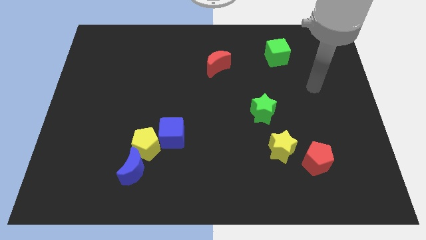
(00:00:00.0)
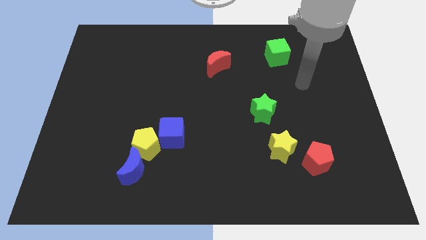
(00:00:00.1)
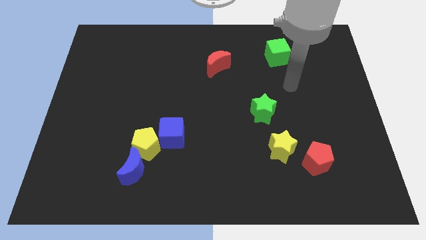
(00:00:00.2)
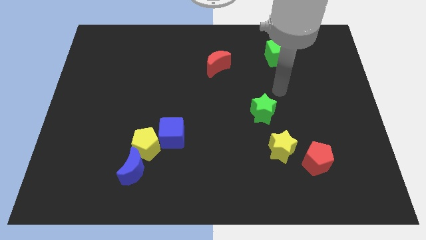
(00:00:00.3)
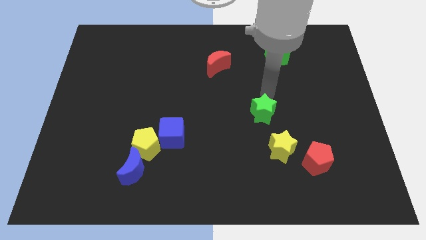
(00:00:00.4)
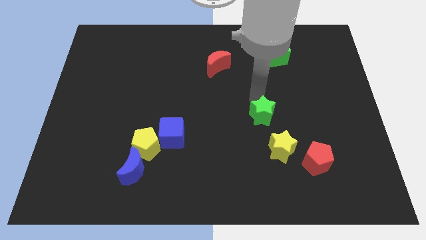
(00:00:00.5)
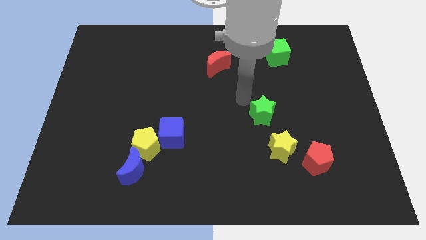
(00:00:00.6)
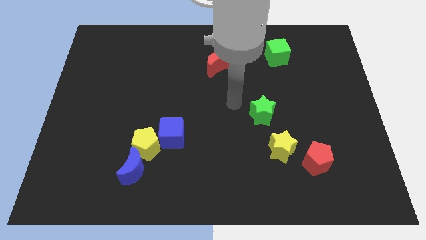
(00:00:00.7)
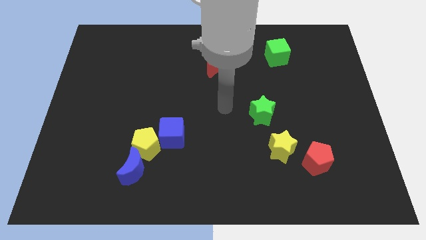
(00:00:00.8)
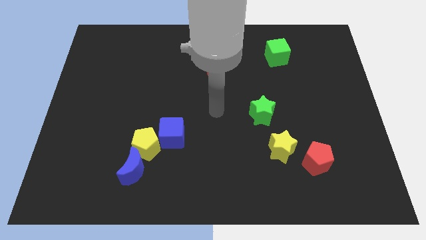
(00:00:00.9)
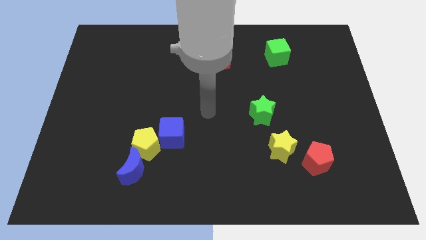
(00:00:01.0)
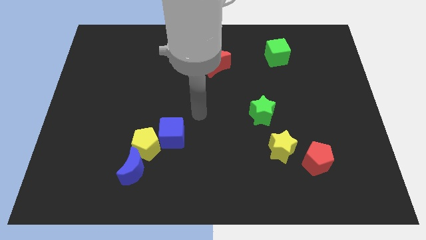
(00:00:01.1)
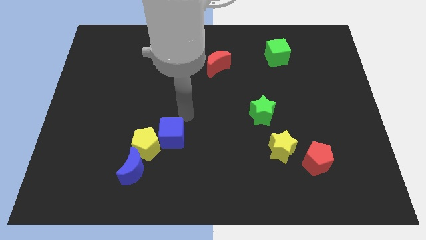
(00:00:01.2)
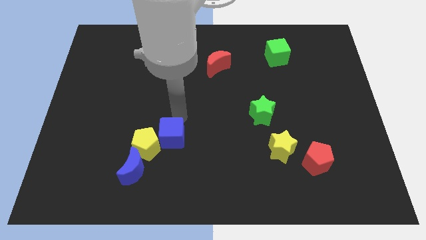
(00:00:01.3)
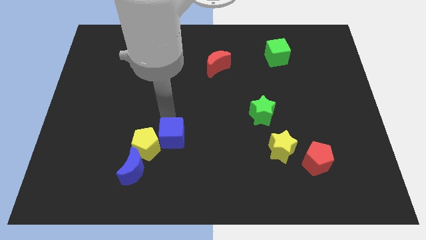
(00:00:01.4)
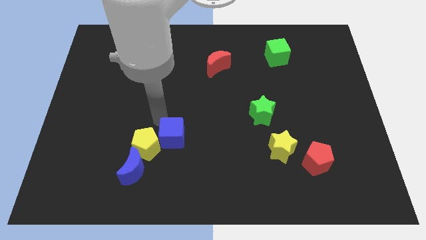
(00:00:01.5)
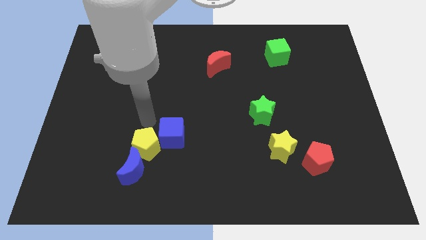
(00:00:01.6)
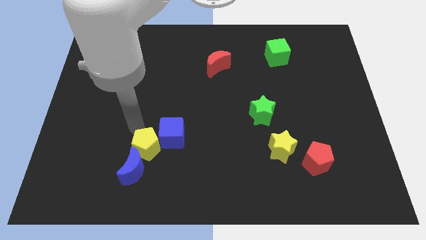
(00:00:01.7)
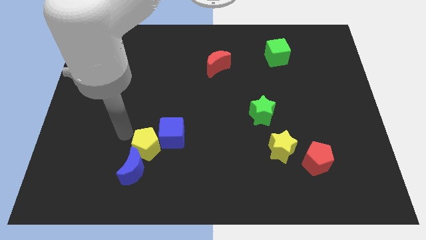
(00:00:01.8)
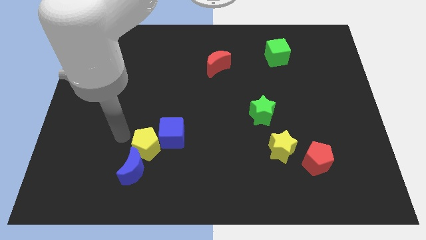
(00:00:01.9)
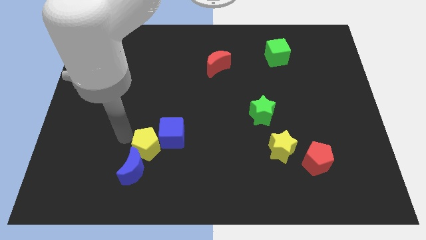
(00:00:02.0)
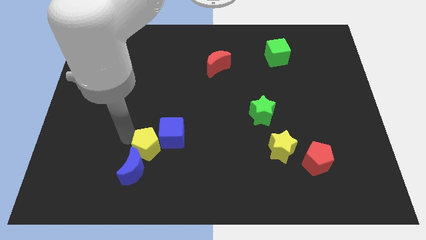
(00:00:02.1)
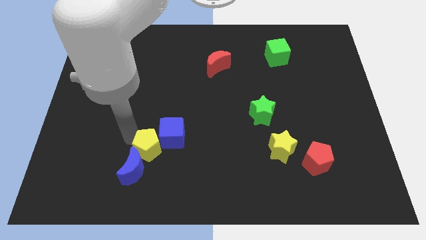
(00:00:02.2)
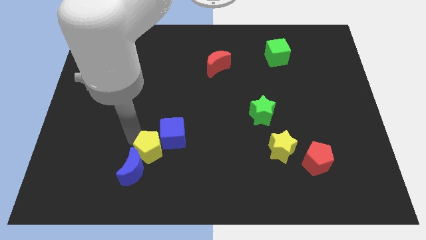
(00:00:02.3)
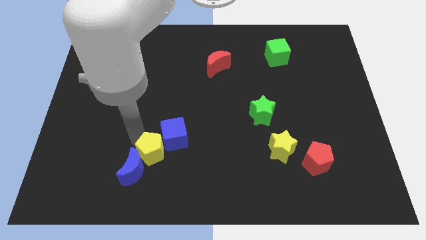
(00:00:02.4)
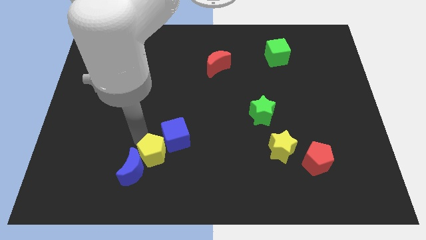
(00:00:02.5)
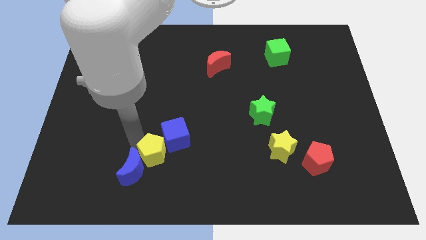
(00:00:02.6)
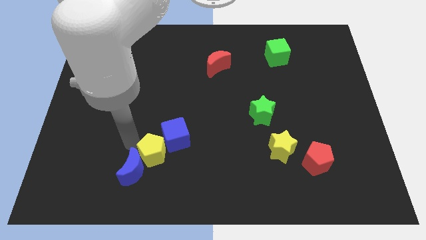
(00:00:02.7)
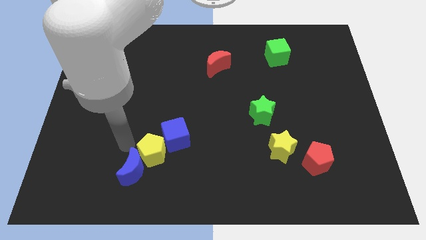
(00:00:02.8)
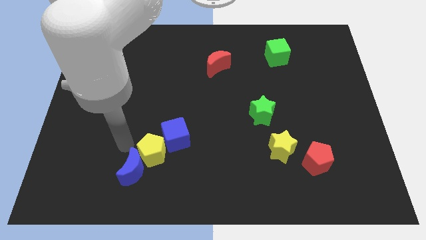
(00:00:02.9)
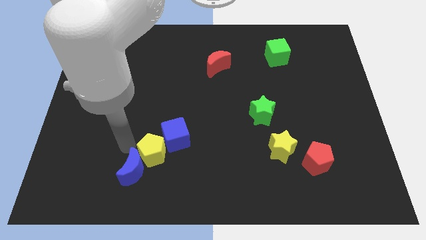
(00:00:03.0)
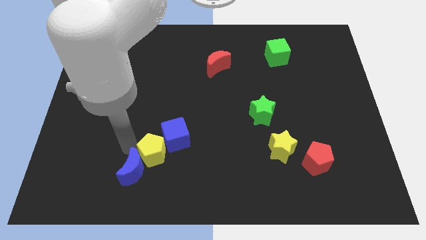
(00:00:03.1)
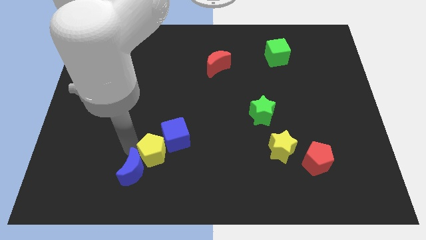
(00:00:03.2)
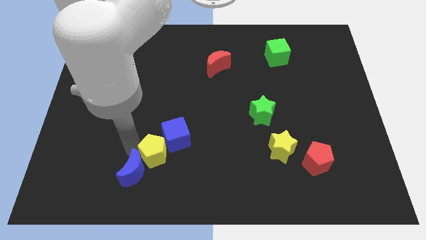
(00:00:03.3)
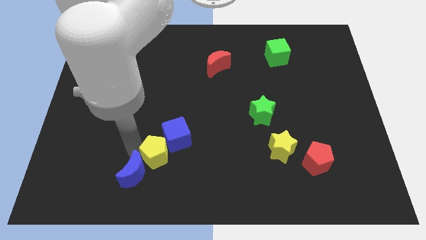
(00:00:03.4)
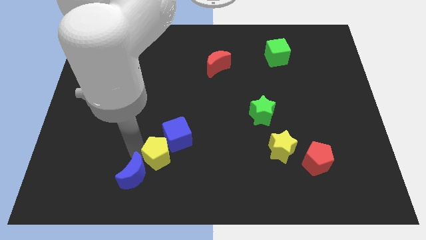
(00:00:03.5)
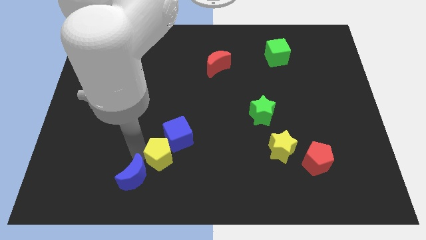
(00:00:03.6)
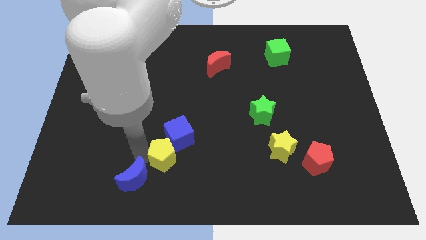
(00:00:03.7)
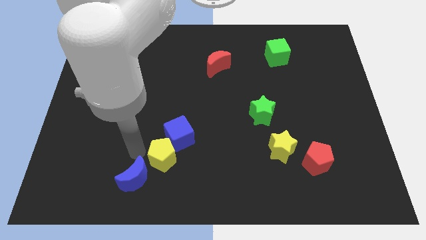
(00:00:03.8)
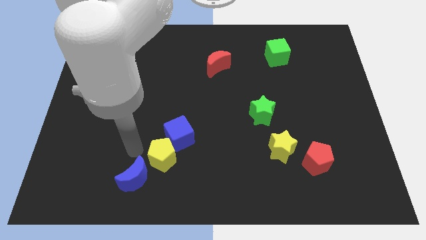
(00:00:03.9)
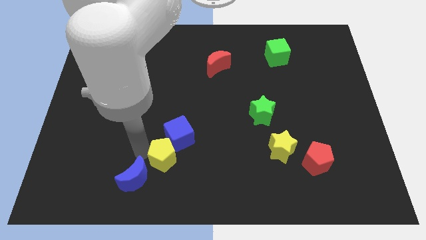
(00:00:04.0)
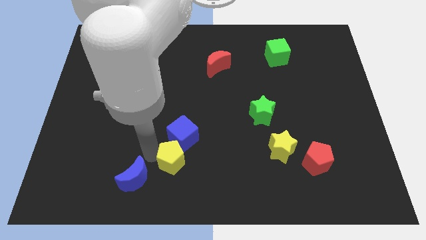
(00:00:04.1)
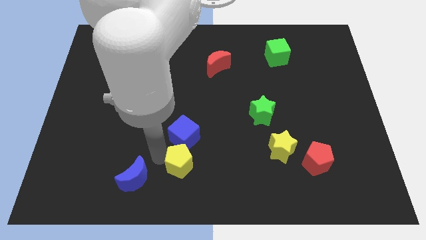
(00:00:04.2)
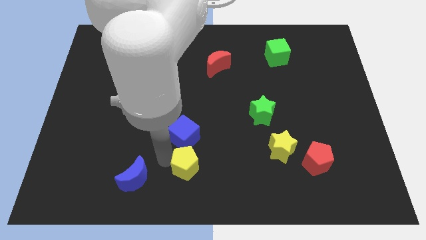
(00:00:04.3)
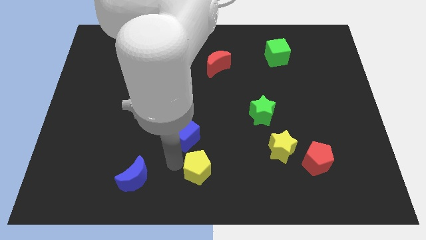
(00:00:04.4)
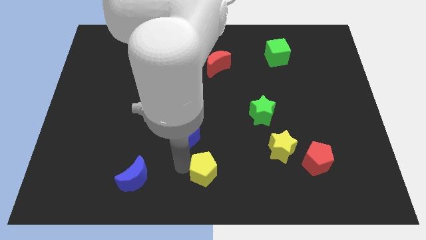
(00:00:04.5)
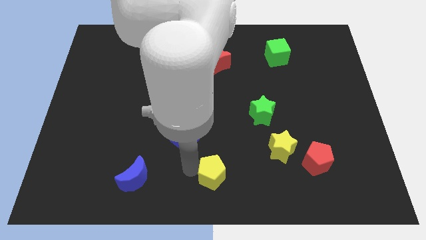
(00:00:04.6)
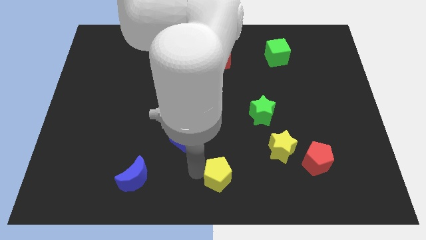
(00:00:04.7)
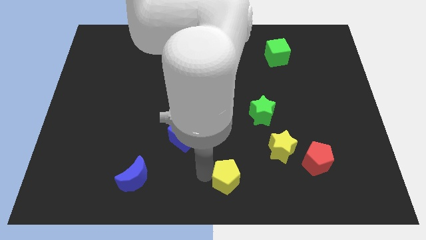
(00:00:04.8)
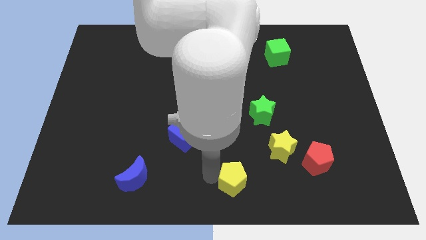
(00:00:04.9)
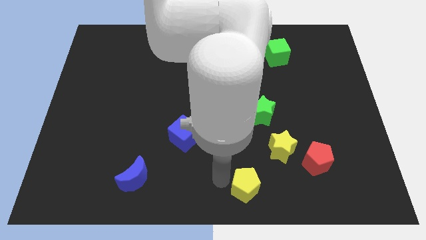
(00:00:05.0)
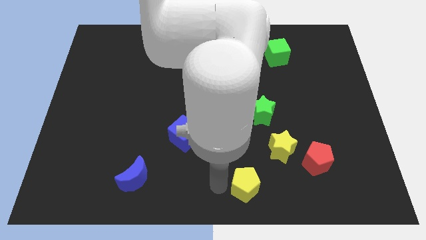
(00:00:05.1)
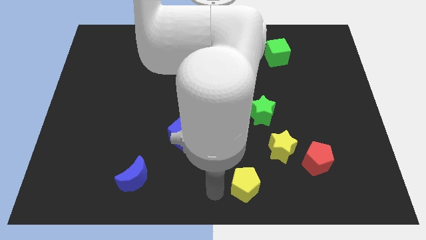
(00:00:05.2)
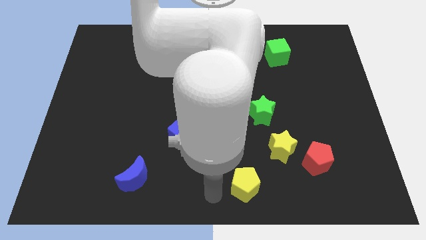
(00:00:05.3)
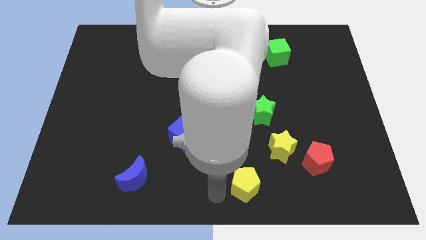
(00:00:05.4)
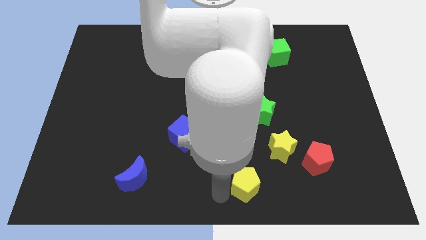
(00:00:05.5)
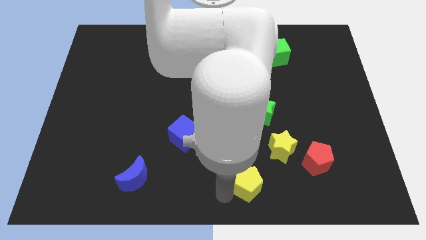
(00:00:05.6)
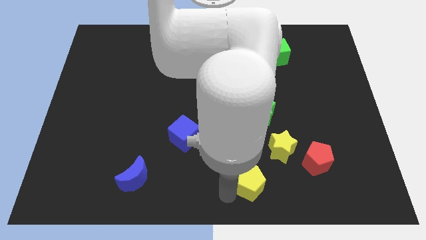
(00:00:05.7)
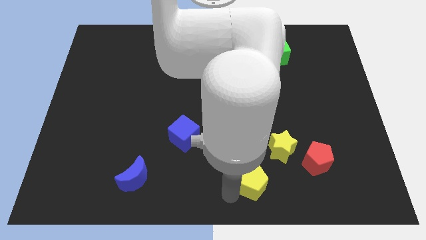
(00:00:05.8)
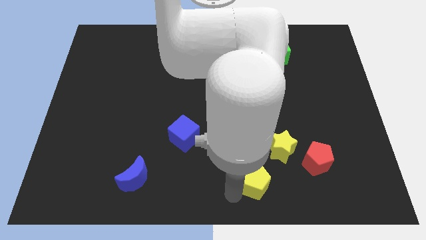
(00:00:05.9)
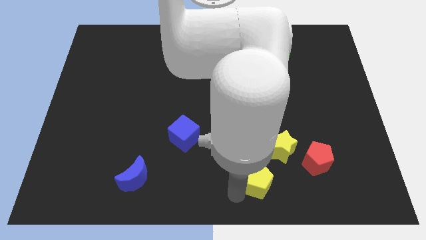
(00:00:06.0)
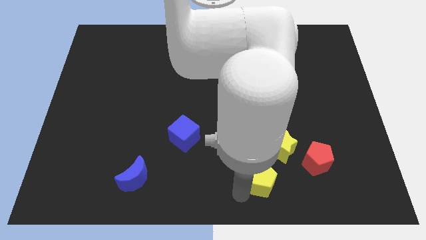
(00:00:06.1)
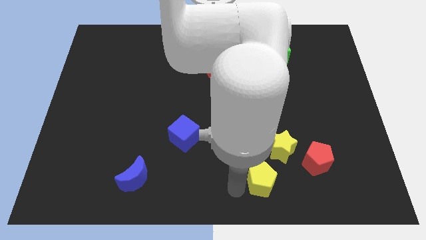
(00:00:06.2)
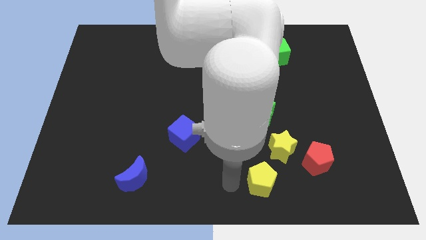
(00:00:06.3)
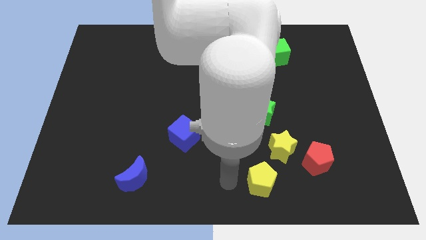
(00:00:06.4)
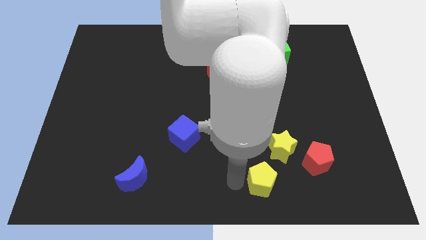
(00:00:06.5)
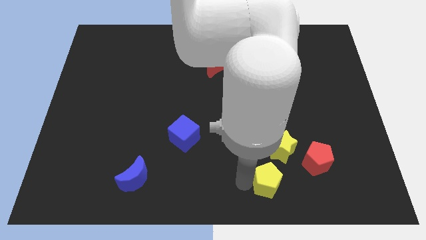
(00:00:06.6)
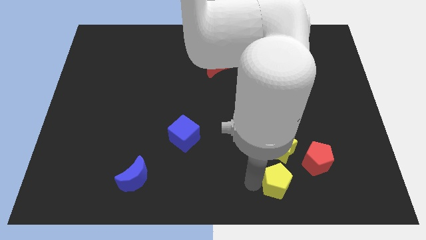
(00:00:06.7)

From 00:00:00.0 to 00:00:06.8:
move the yellow pentagon to the bottom left of the red pentagon
